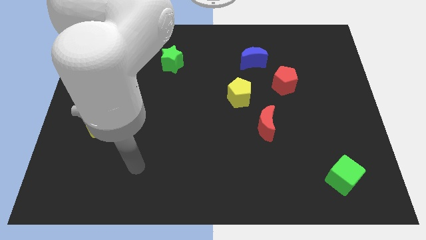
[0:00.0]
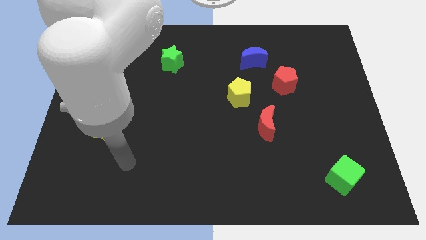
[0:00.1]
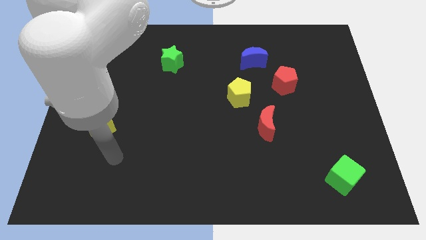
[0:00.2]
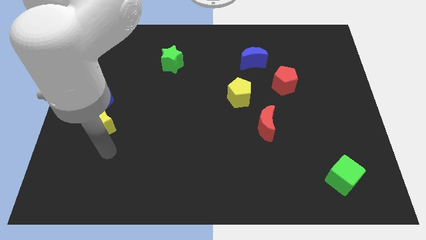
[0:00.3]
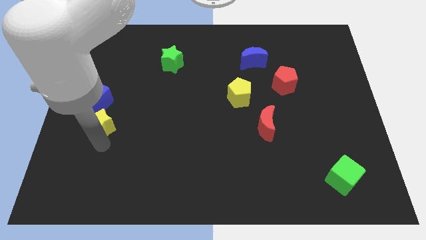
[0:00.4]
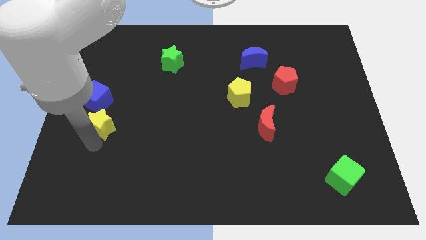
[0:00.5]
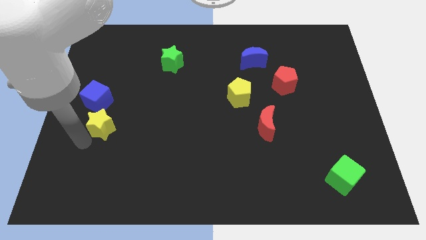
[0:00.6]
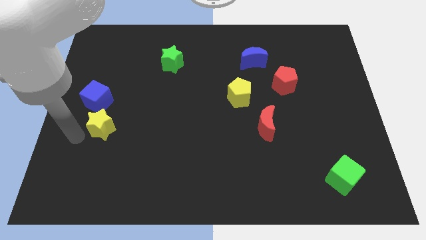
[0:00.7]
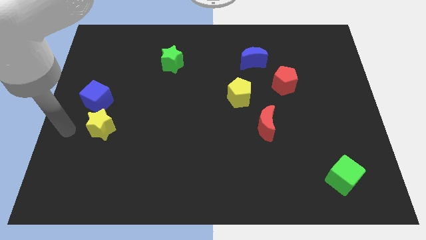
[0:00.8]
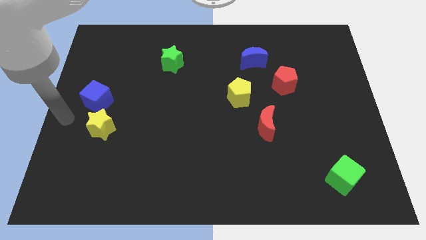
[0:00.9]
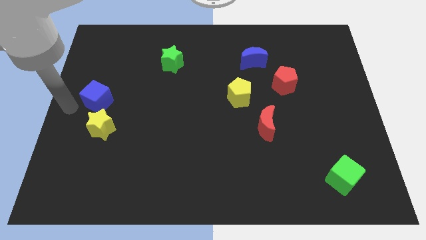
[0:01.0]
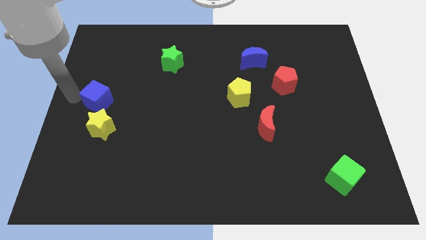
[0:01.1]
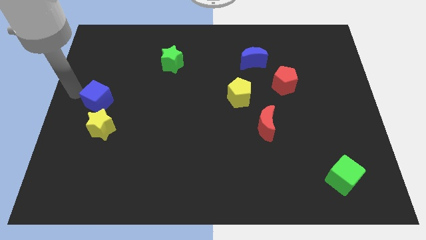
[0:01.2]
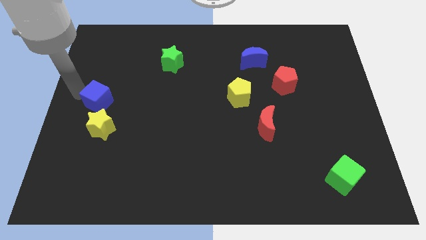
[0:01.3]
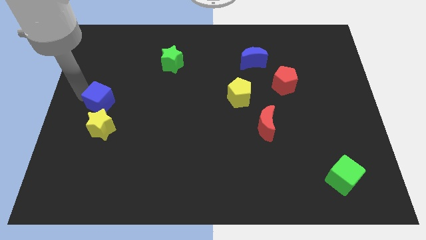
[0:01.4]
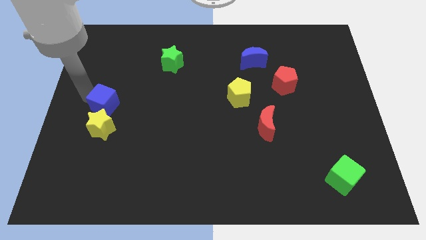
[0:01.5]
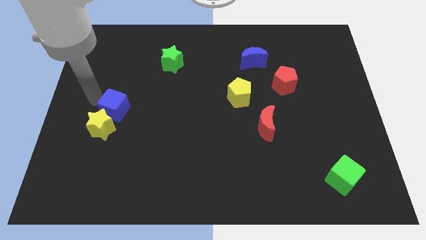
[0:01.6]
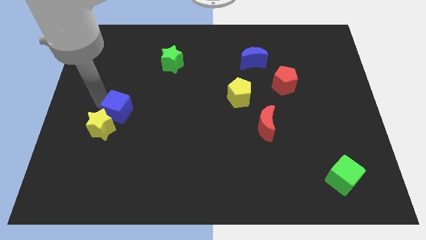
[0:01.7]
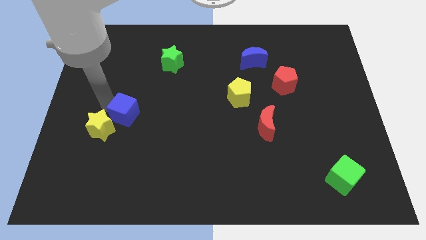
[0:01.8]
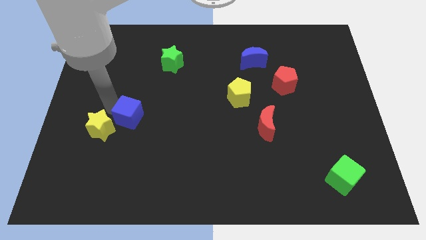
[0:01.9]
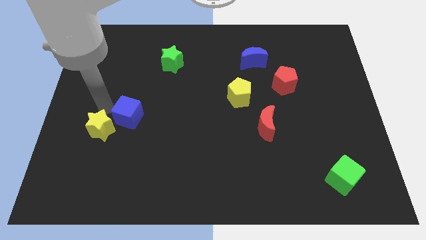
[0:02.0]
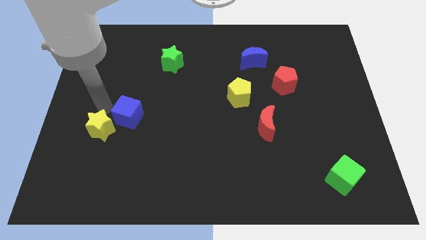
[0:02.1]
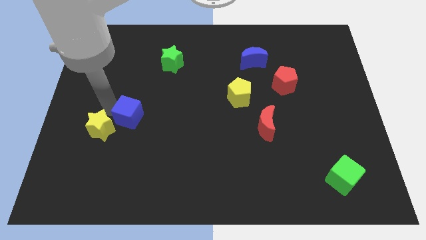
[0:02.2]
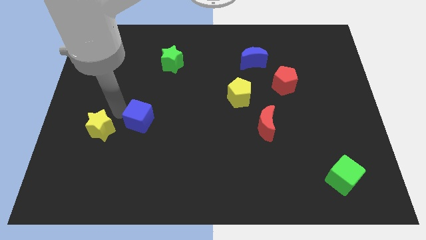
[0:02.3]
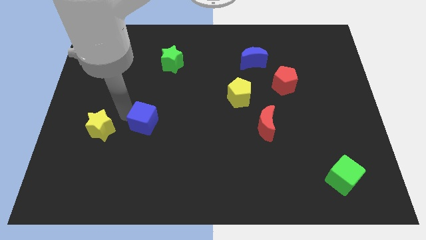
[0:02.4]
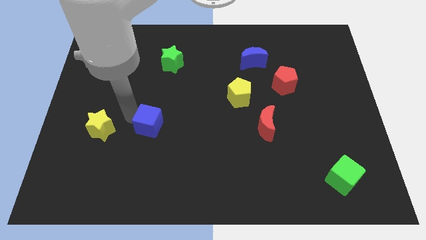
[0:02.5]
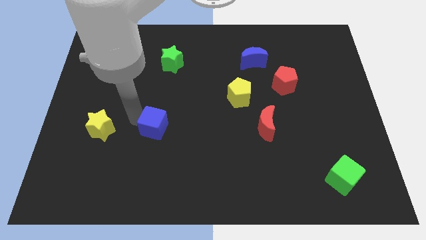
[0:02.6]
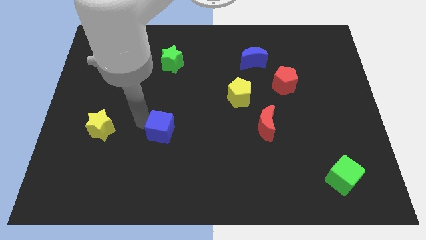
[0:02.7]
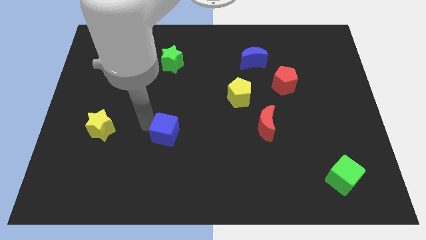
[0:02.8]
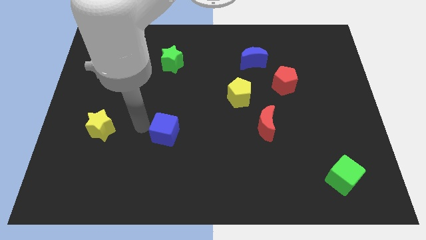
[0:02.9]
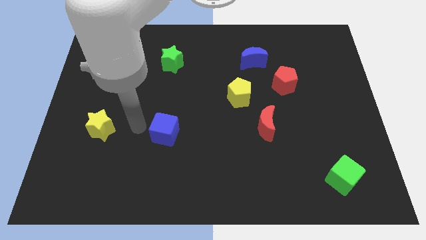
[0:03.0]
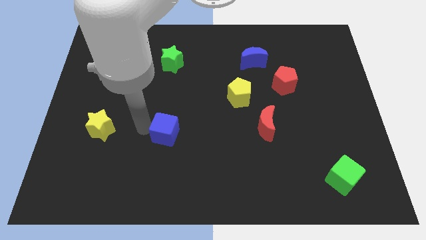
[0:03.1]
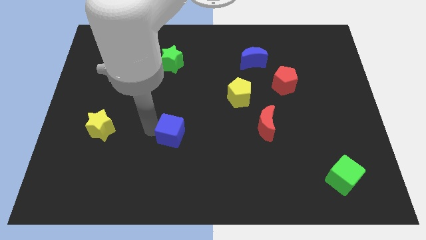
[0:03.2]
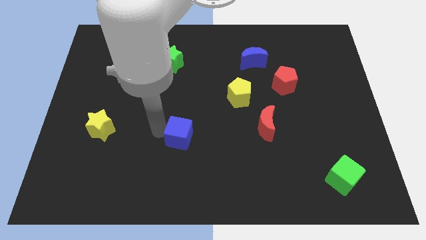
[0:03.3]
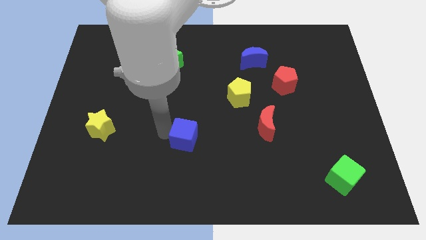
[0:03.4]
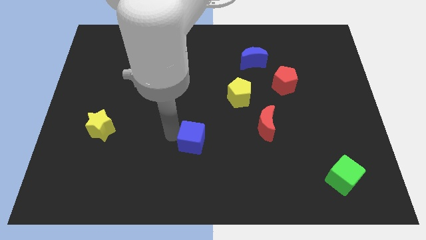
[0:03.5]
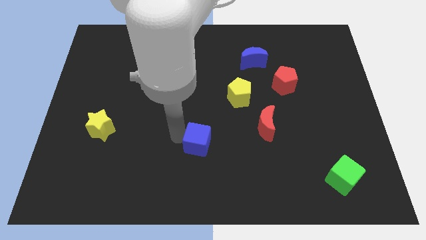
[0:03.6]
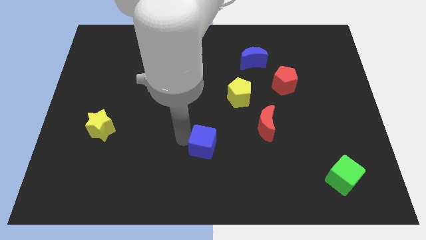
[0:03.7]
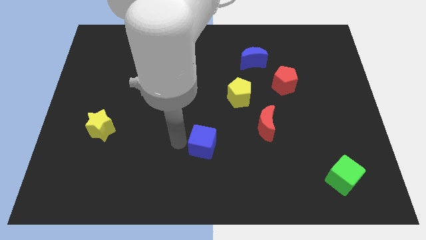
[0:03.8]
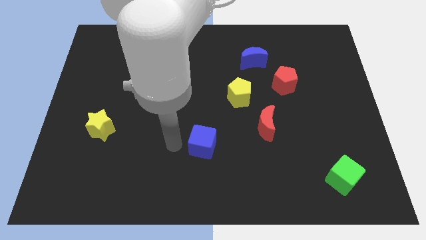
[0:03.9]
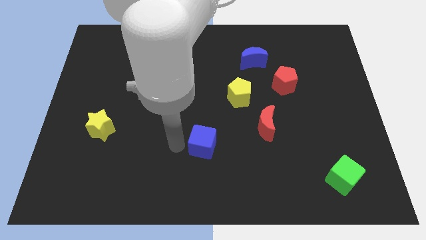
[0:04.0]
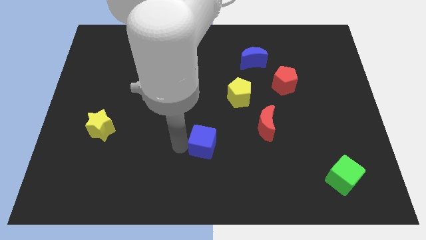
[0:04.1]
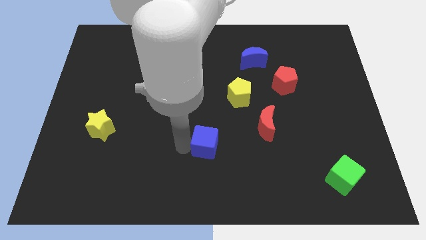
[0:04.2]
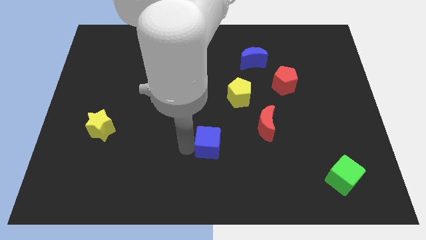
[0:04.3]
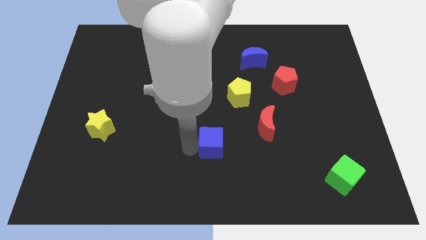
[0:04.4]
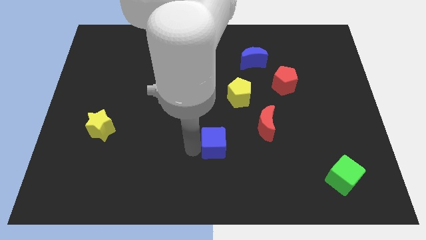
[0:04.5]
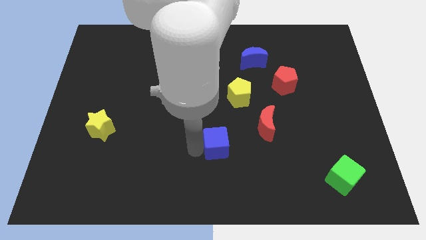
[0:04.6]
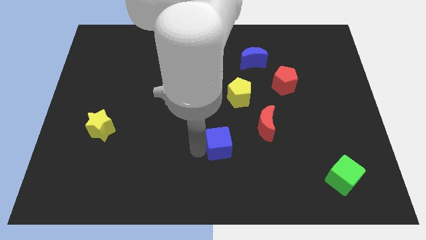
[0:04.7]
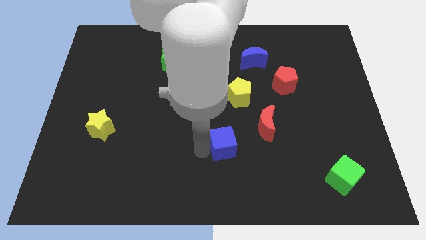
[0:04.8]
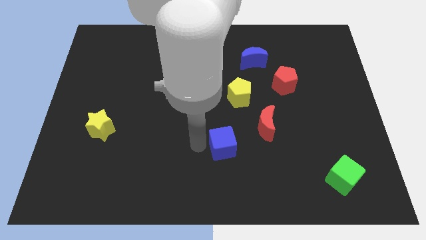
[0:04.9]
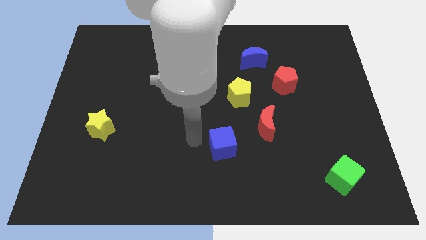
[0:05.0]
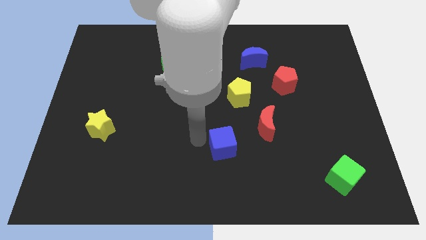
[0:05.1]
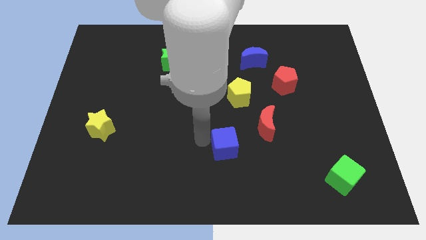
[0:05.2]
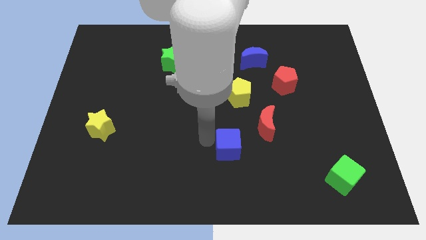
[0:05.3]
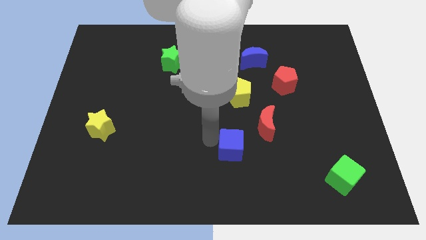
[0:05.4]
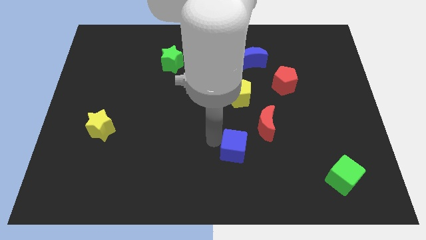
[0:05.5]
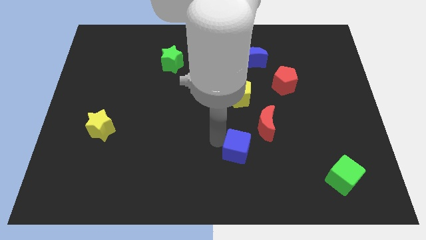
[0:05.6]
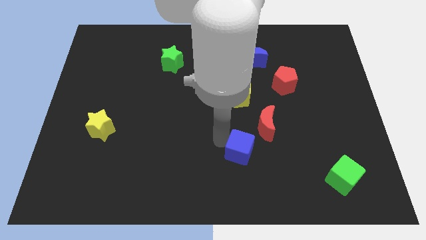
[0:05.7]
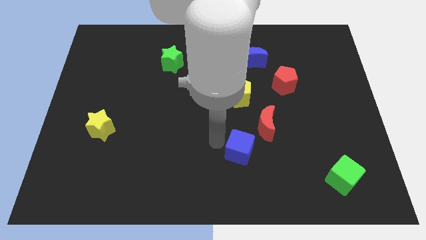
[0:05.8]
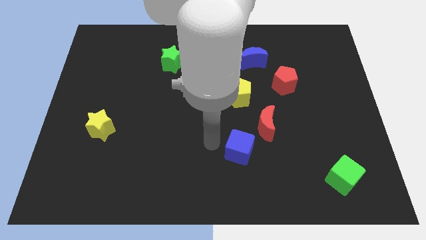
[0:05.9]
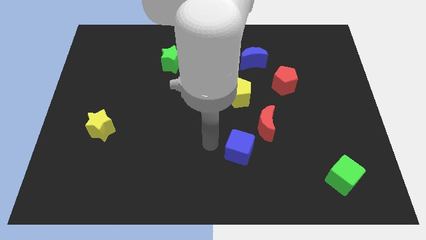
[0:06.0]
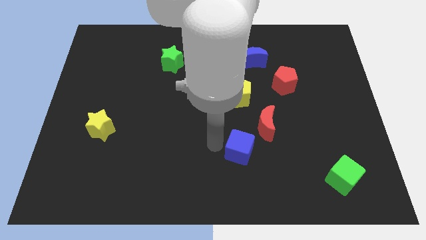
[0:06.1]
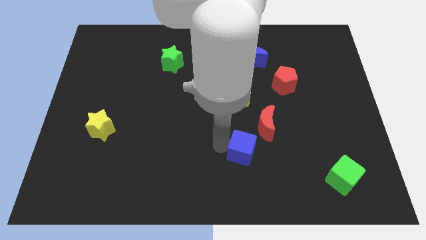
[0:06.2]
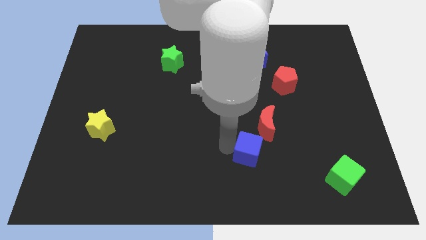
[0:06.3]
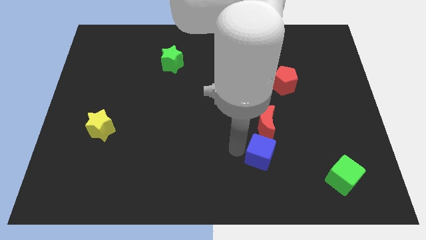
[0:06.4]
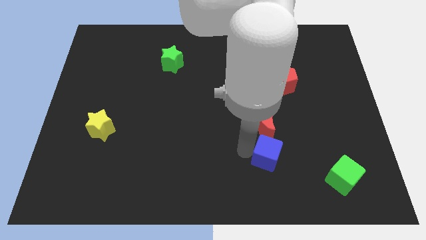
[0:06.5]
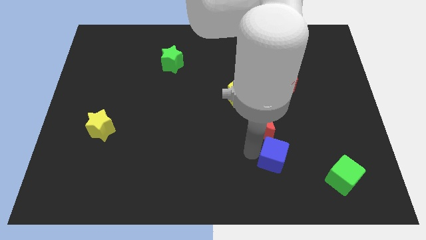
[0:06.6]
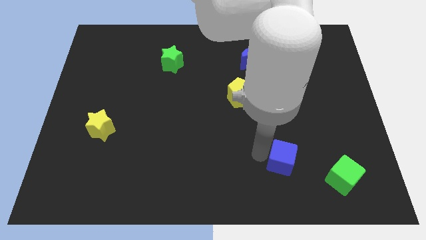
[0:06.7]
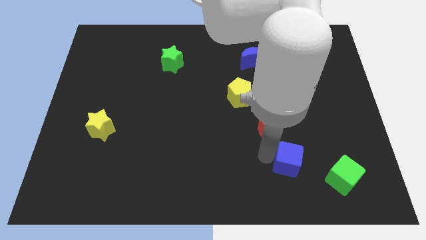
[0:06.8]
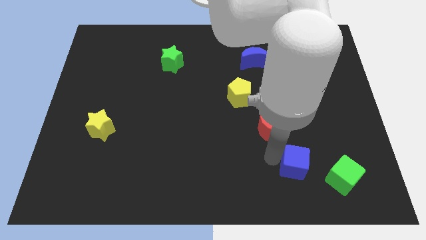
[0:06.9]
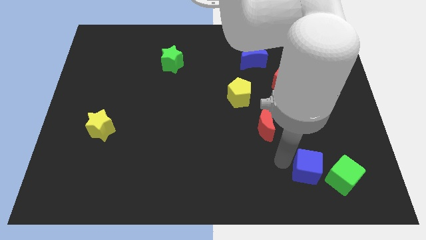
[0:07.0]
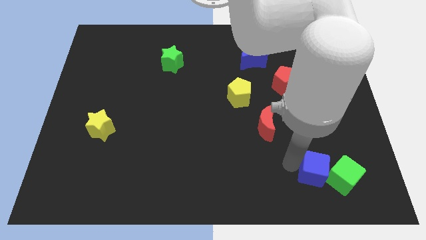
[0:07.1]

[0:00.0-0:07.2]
move the blue cube towards the green cube
